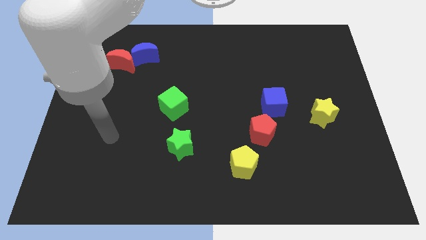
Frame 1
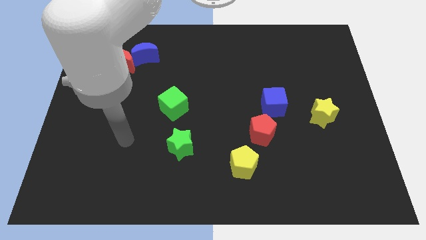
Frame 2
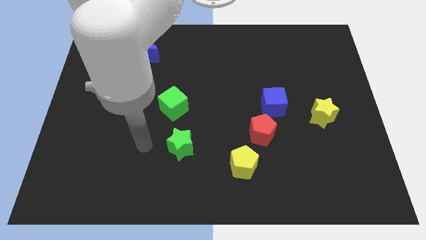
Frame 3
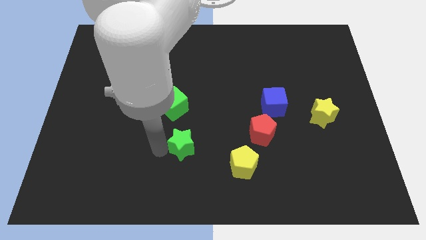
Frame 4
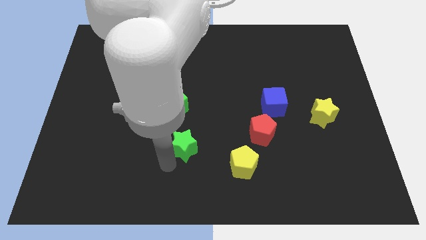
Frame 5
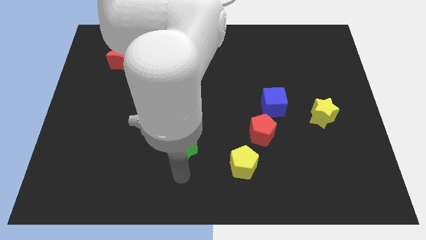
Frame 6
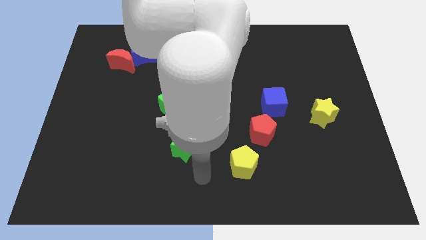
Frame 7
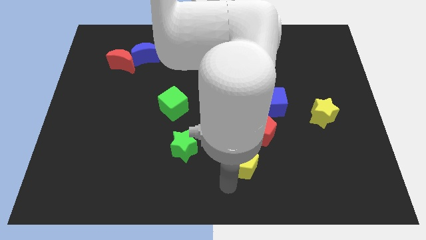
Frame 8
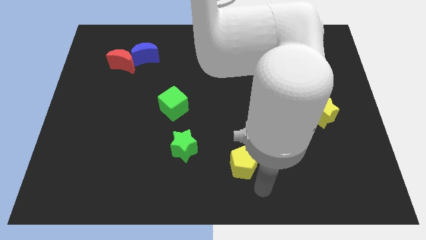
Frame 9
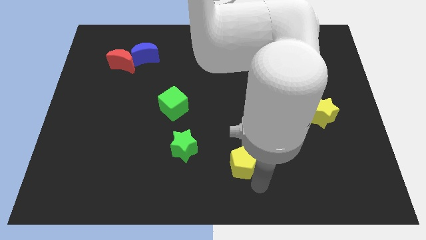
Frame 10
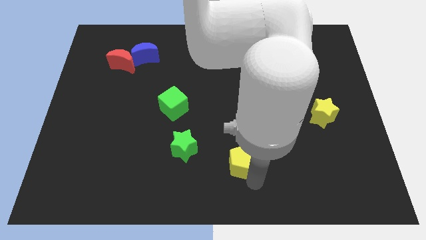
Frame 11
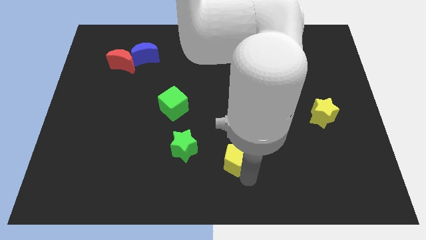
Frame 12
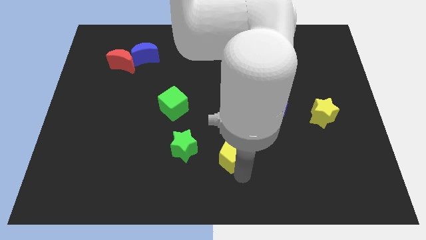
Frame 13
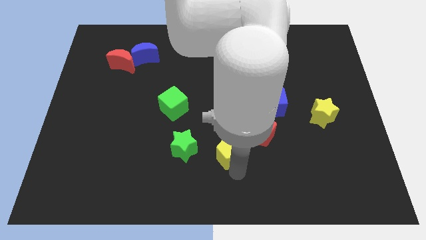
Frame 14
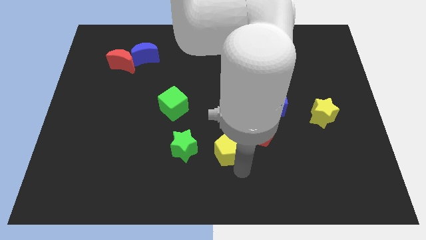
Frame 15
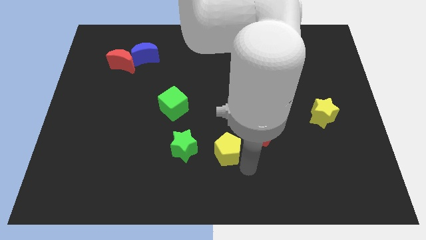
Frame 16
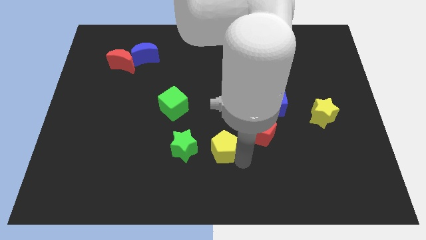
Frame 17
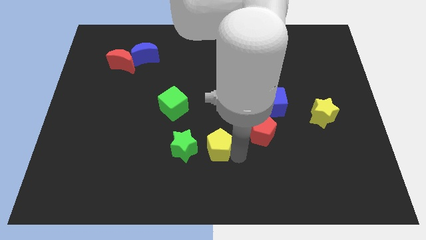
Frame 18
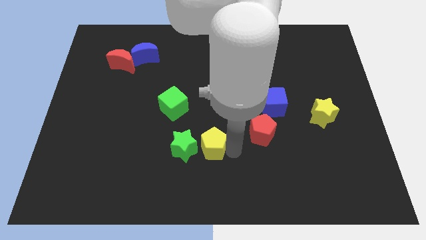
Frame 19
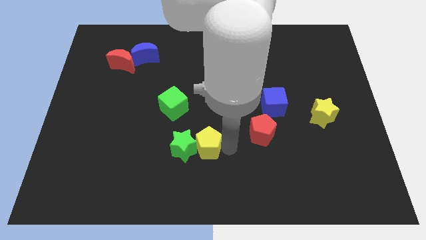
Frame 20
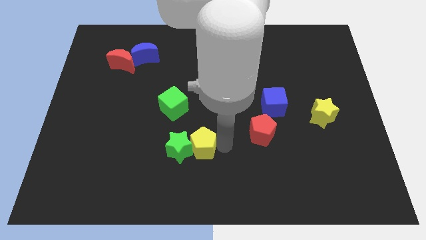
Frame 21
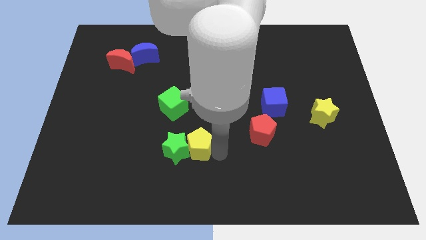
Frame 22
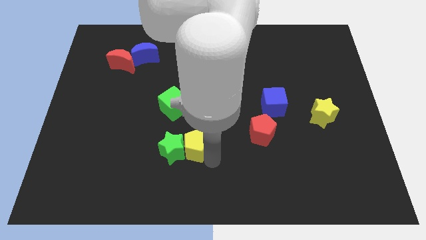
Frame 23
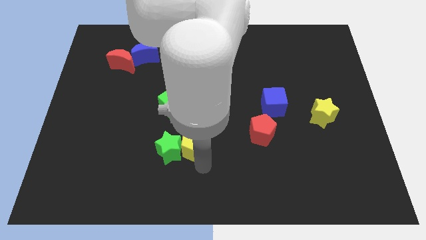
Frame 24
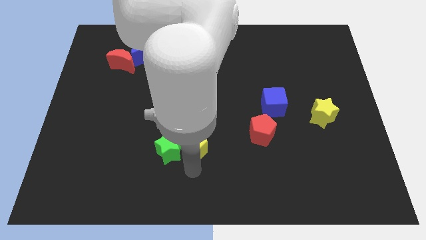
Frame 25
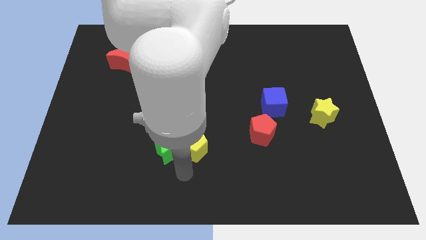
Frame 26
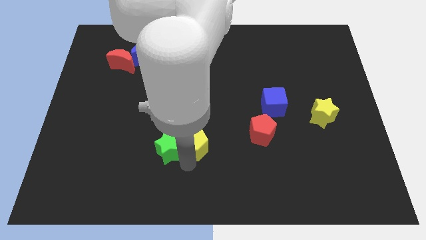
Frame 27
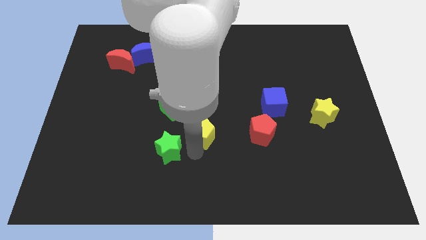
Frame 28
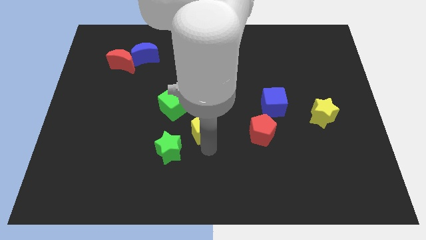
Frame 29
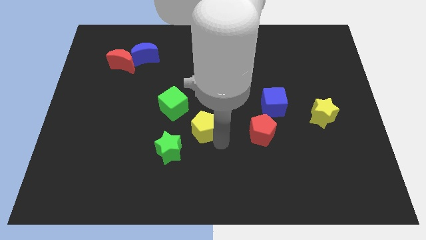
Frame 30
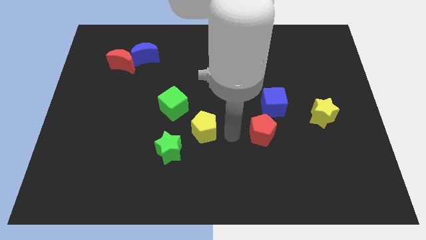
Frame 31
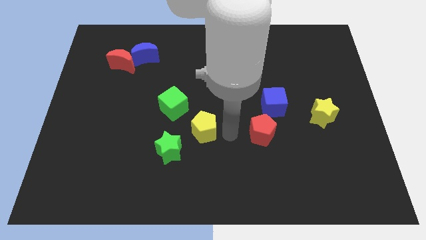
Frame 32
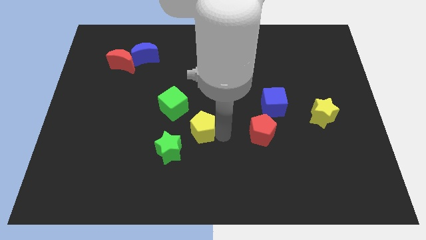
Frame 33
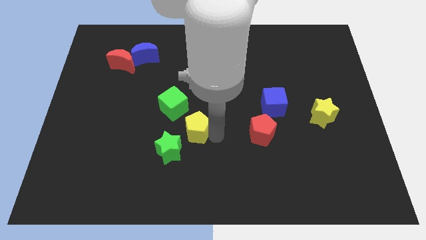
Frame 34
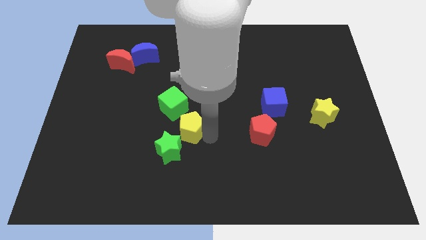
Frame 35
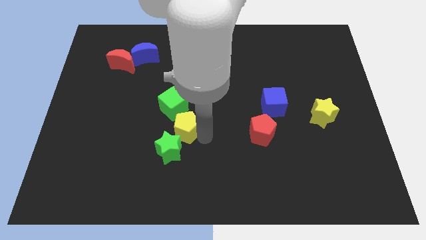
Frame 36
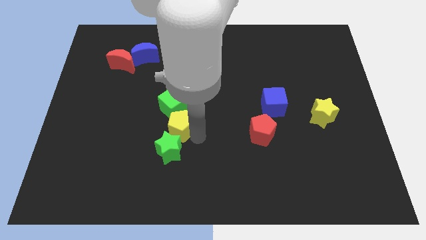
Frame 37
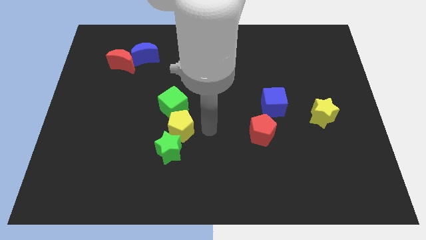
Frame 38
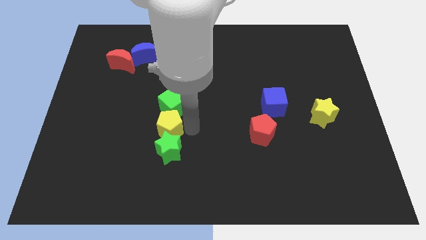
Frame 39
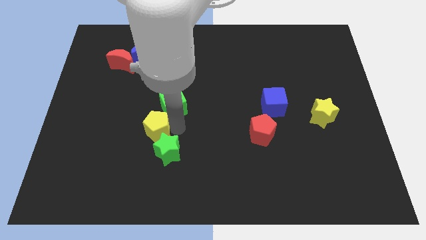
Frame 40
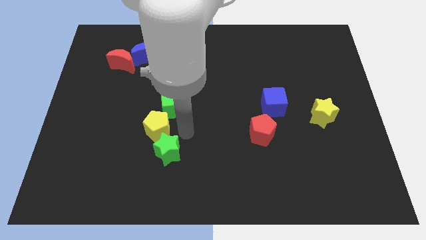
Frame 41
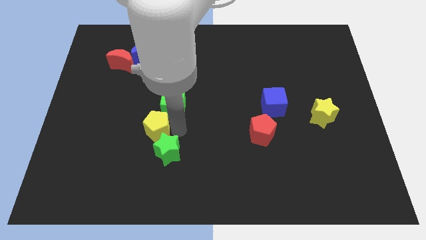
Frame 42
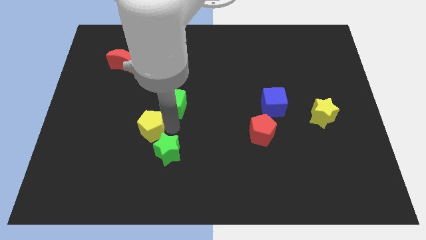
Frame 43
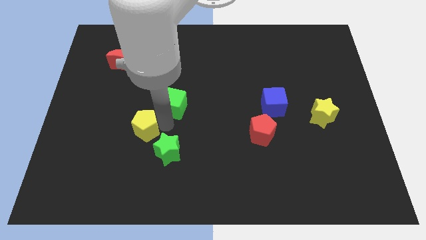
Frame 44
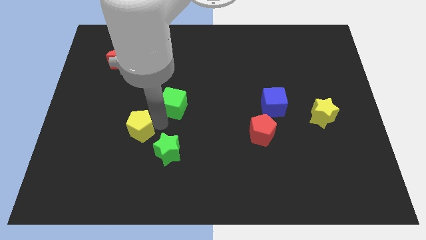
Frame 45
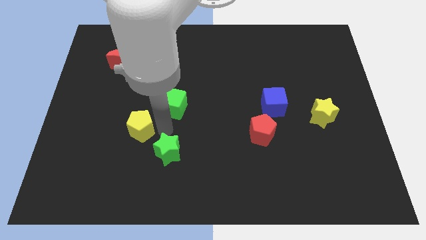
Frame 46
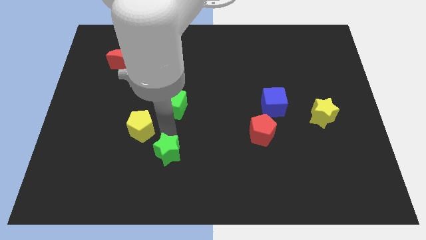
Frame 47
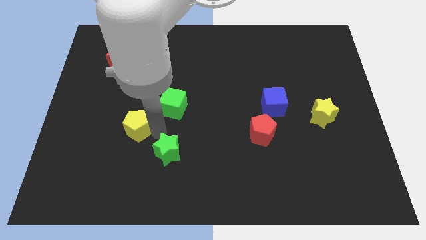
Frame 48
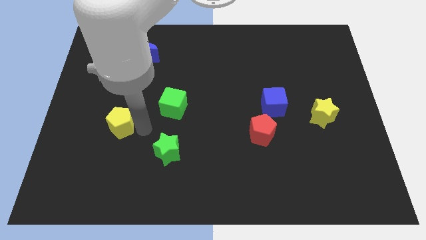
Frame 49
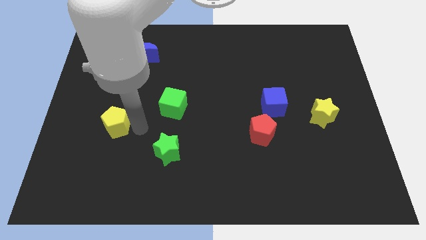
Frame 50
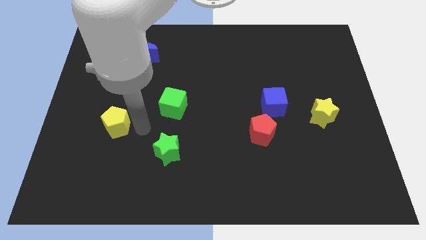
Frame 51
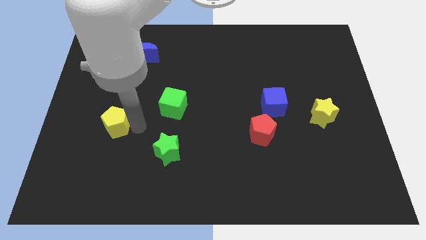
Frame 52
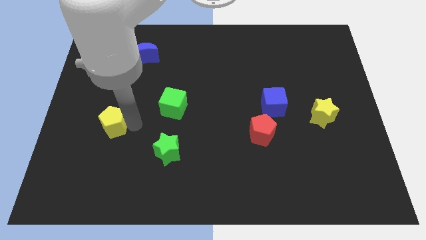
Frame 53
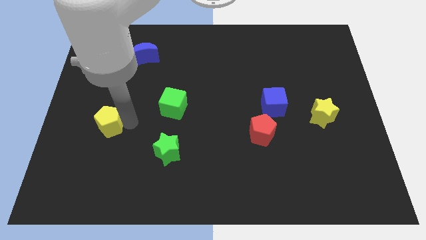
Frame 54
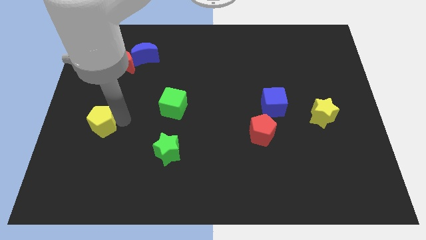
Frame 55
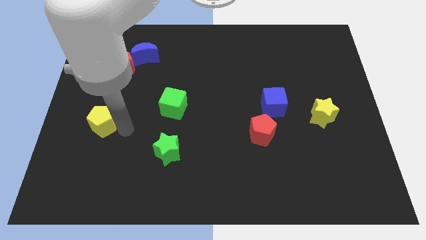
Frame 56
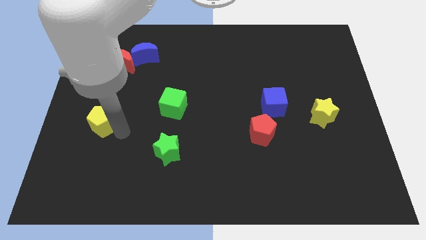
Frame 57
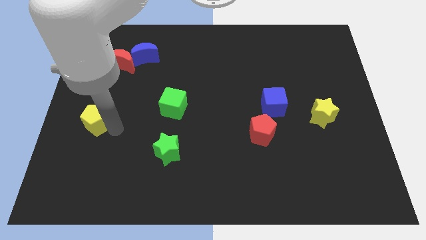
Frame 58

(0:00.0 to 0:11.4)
push the yellow pentagon to the left side of the board

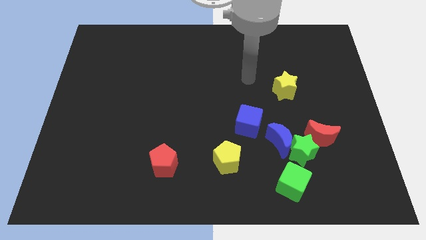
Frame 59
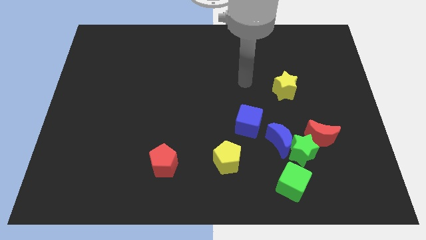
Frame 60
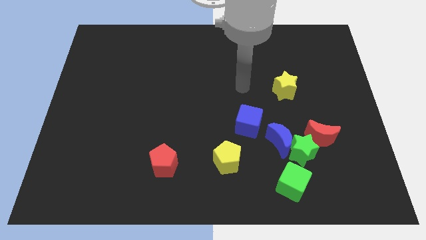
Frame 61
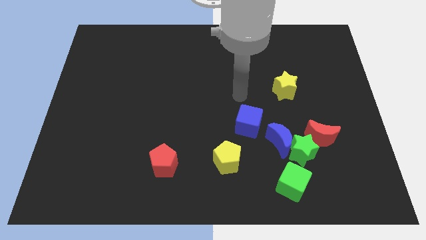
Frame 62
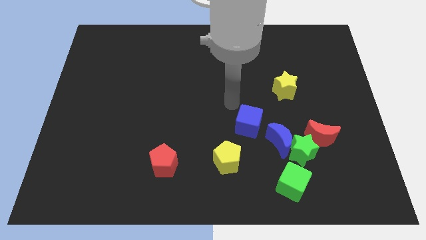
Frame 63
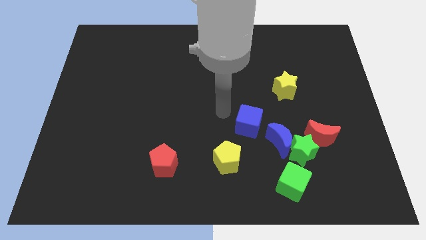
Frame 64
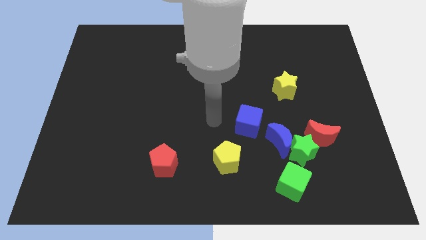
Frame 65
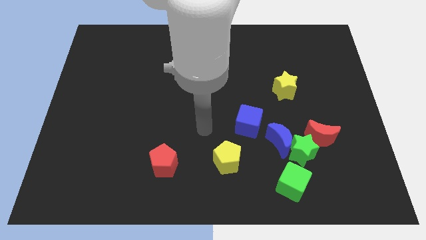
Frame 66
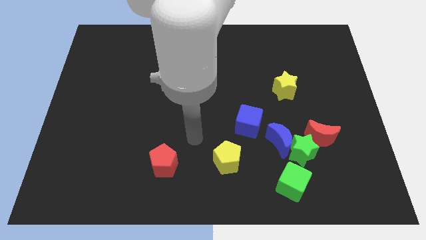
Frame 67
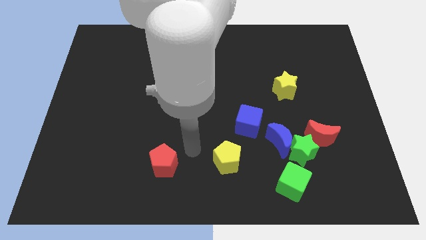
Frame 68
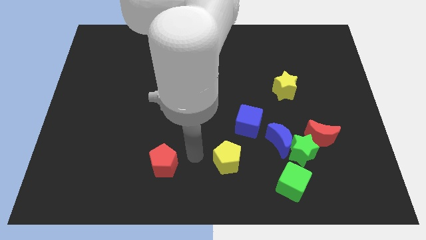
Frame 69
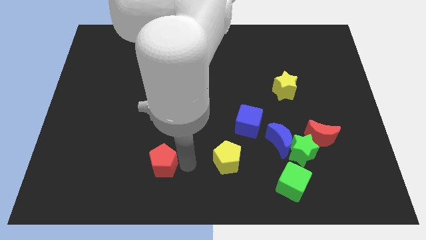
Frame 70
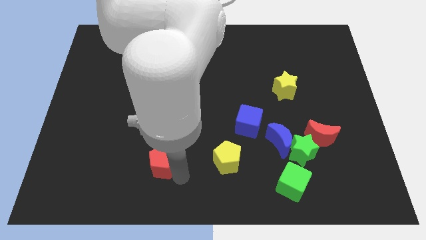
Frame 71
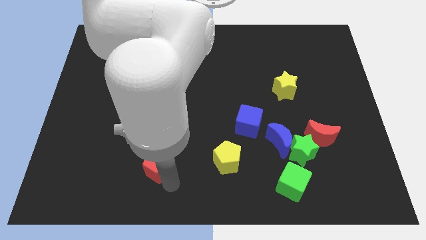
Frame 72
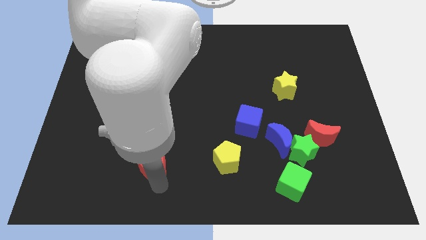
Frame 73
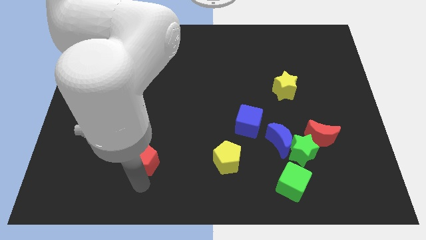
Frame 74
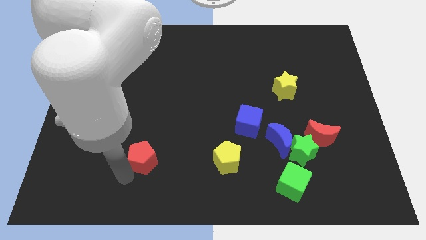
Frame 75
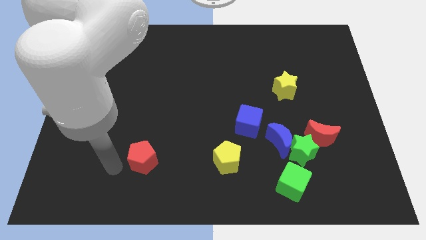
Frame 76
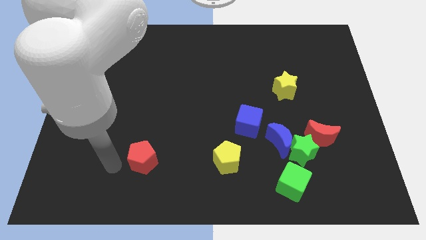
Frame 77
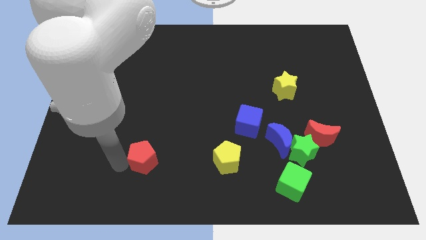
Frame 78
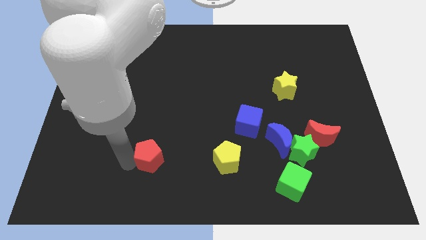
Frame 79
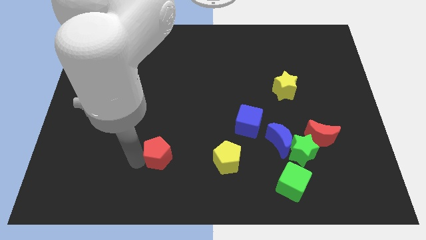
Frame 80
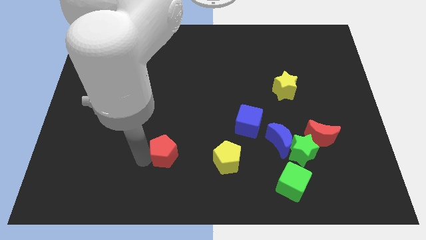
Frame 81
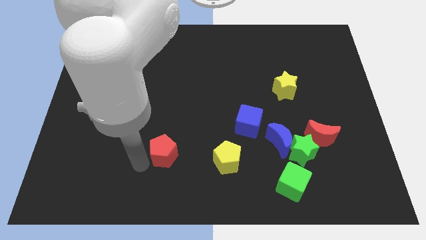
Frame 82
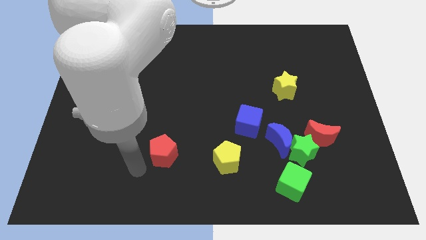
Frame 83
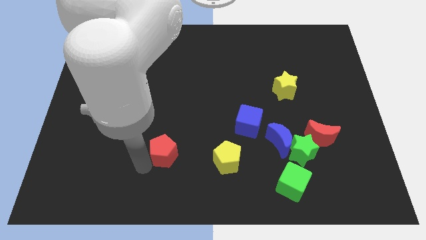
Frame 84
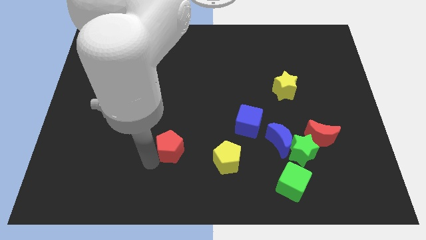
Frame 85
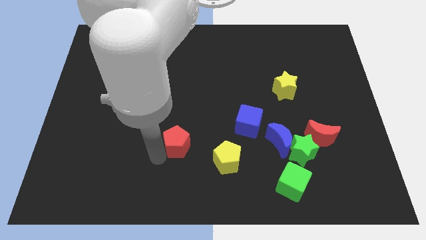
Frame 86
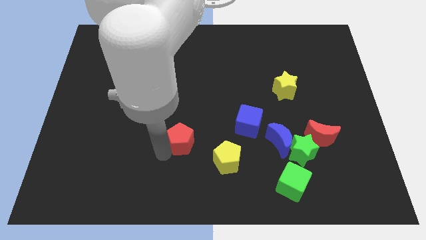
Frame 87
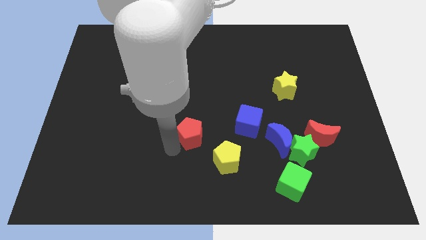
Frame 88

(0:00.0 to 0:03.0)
push the red pentagon to the middle
